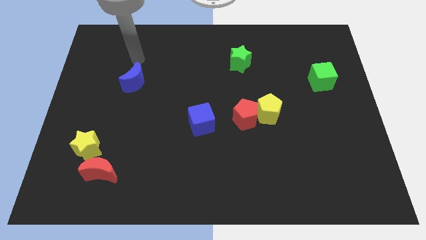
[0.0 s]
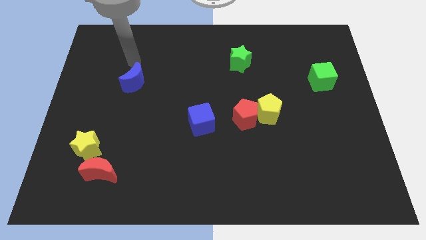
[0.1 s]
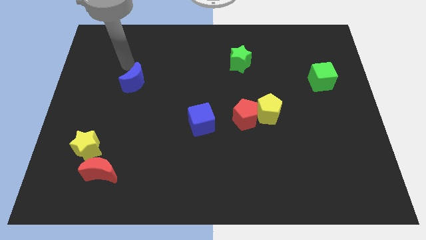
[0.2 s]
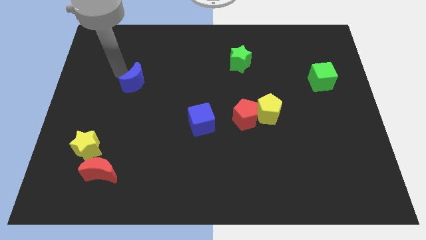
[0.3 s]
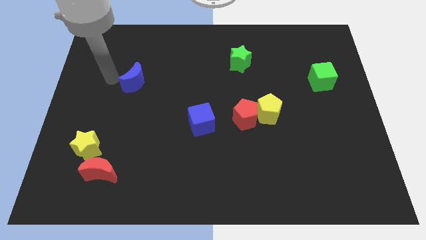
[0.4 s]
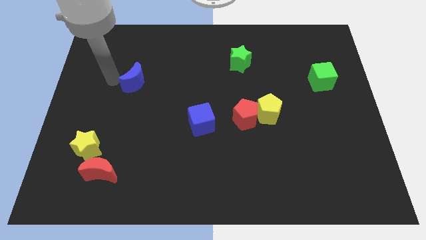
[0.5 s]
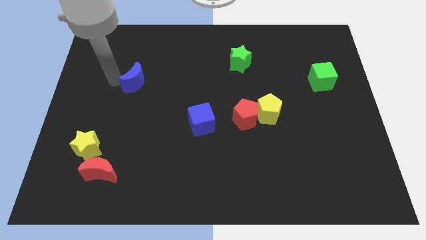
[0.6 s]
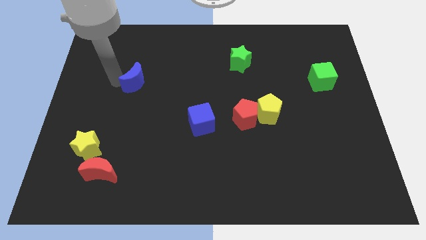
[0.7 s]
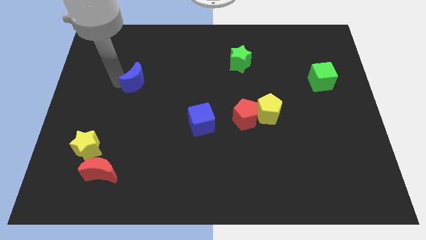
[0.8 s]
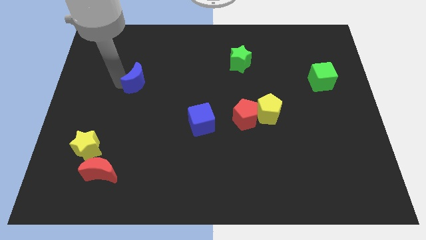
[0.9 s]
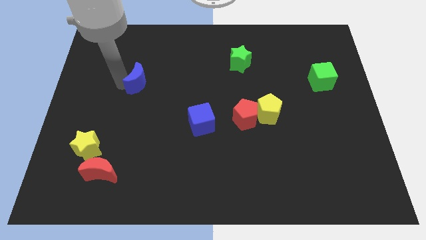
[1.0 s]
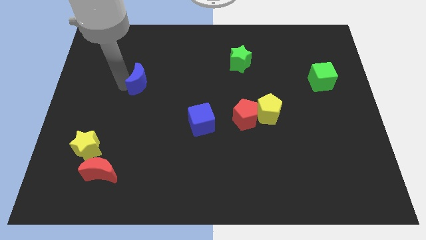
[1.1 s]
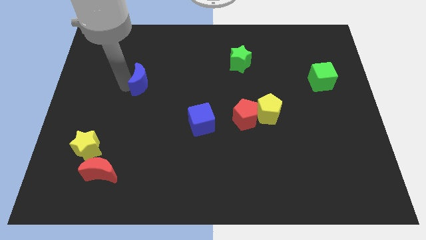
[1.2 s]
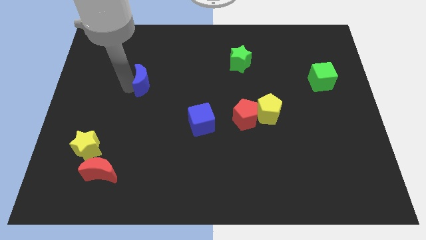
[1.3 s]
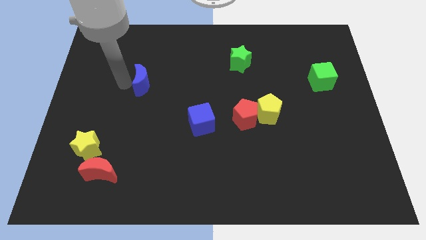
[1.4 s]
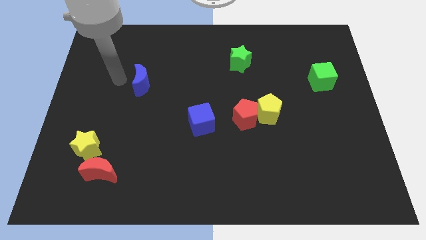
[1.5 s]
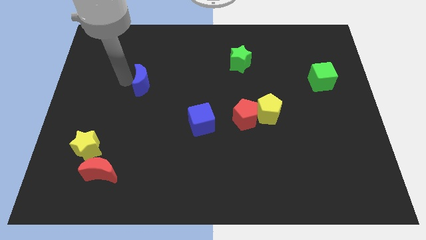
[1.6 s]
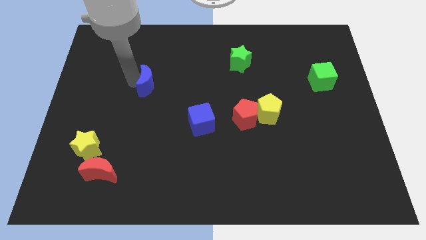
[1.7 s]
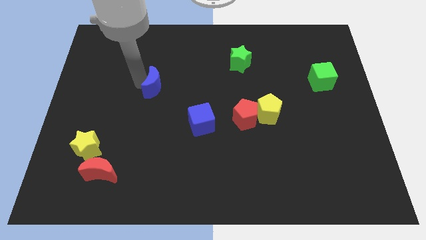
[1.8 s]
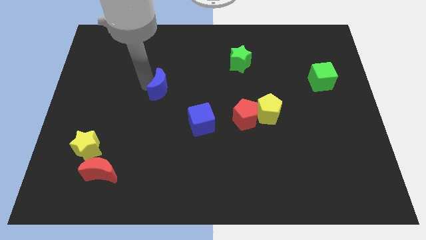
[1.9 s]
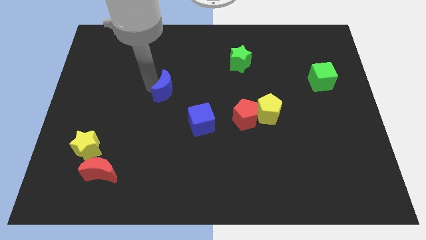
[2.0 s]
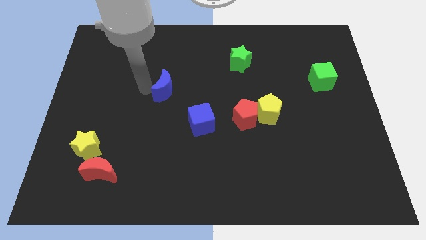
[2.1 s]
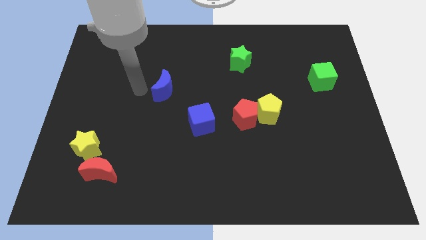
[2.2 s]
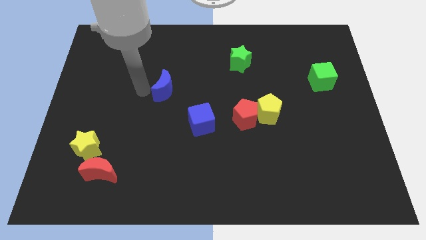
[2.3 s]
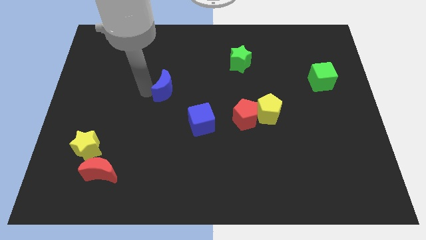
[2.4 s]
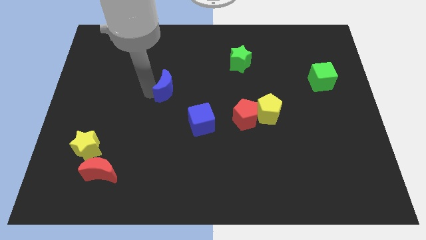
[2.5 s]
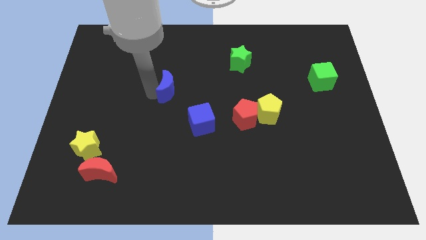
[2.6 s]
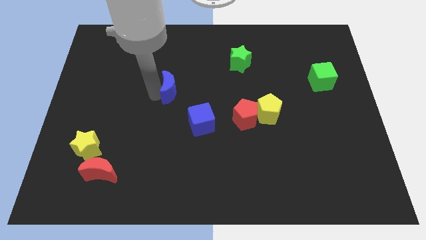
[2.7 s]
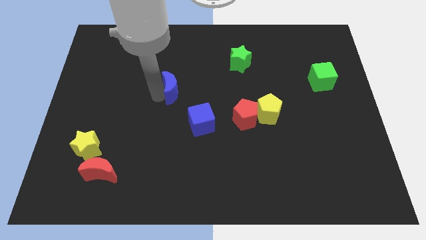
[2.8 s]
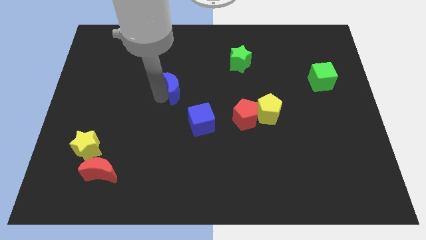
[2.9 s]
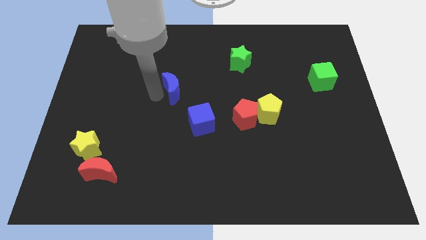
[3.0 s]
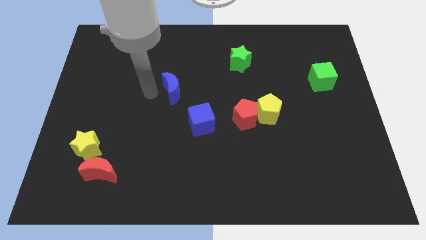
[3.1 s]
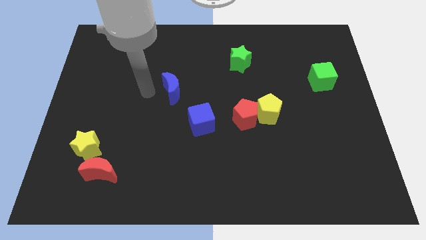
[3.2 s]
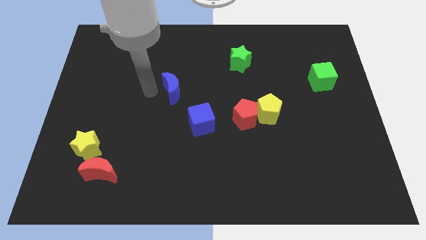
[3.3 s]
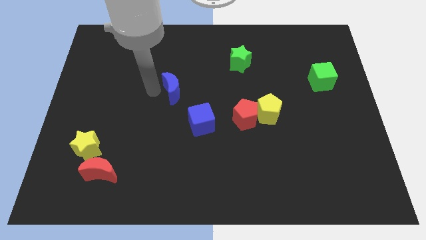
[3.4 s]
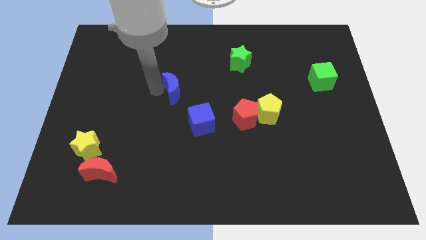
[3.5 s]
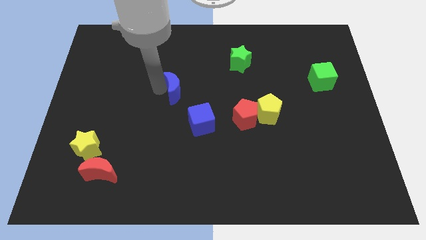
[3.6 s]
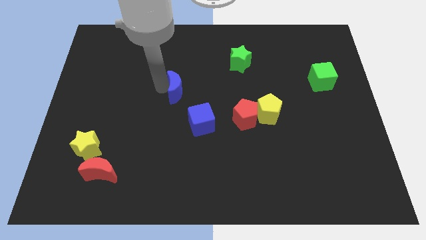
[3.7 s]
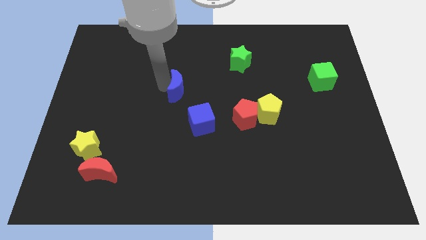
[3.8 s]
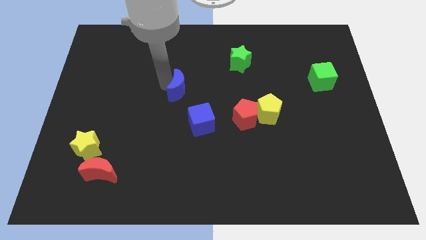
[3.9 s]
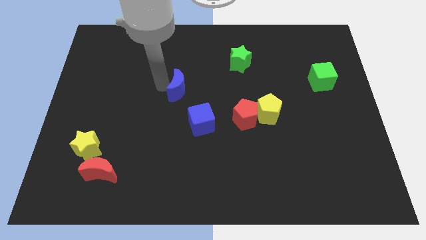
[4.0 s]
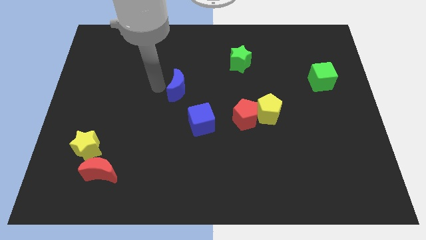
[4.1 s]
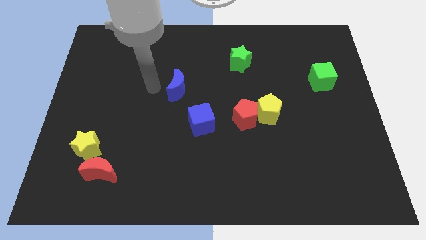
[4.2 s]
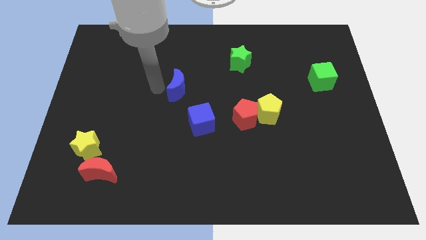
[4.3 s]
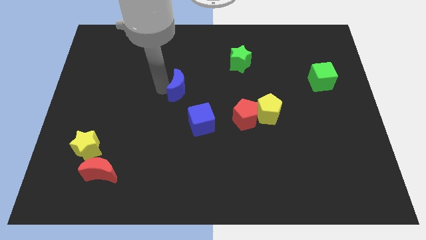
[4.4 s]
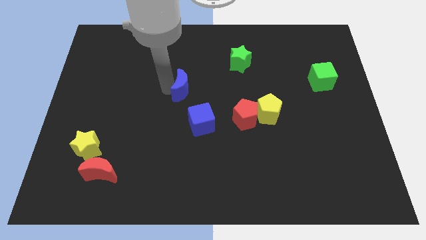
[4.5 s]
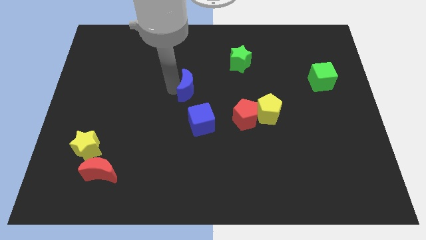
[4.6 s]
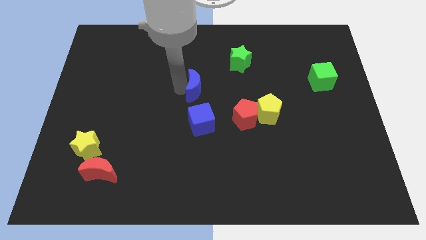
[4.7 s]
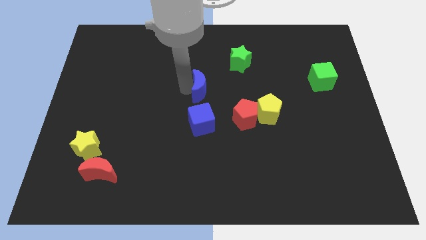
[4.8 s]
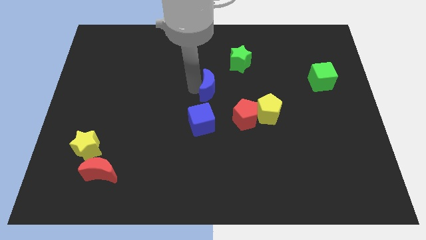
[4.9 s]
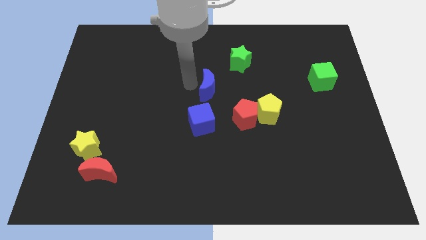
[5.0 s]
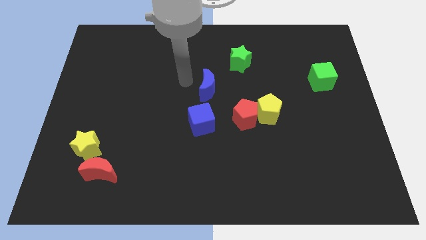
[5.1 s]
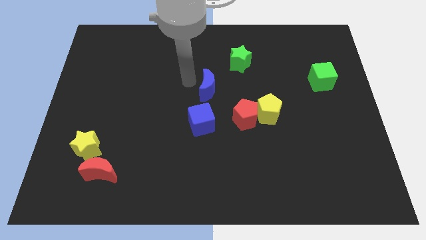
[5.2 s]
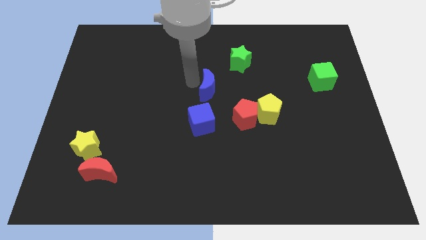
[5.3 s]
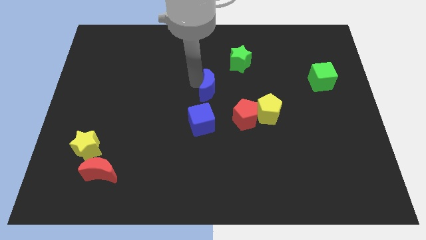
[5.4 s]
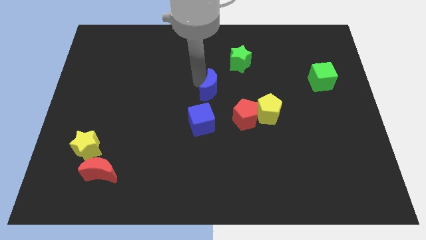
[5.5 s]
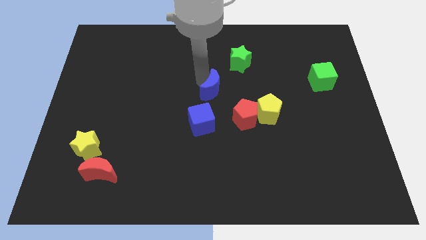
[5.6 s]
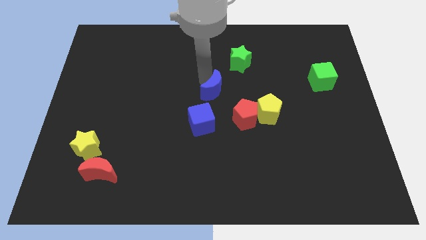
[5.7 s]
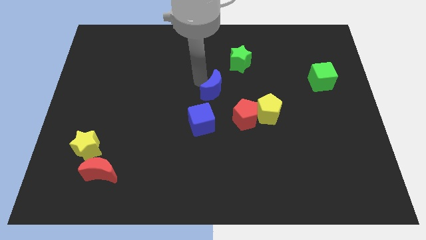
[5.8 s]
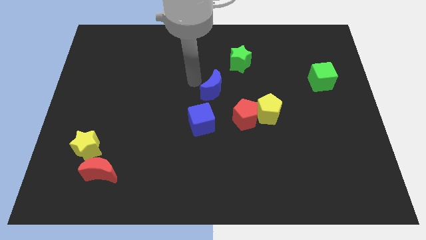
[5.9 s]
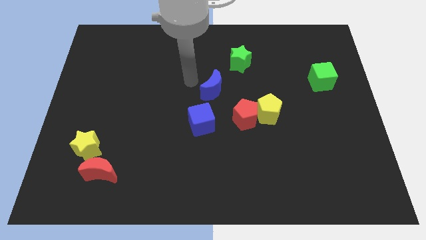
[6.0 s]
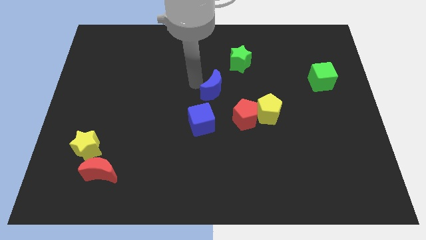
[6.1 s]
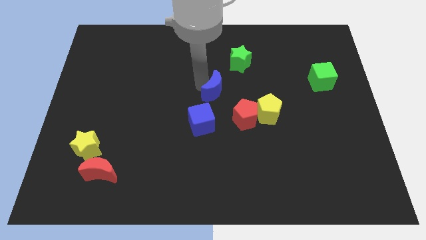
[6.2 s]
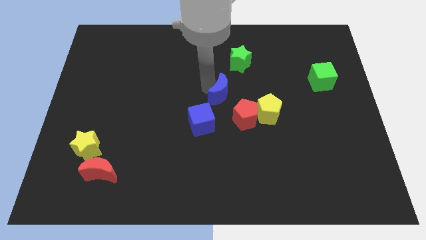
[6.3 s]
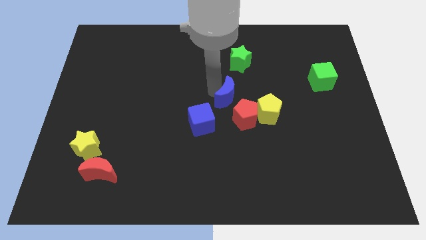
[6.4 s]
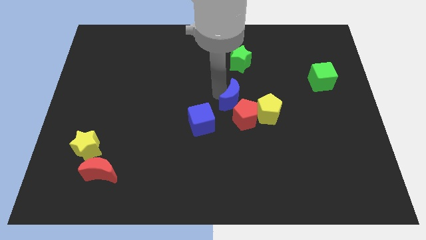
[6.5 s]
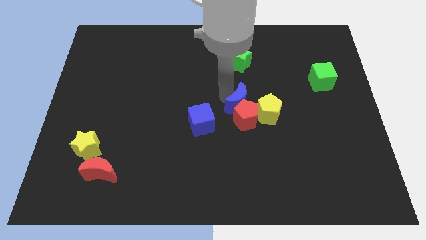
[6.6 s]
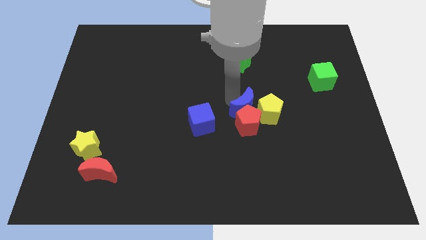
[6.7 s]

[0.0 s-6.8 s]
put the blue moon close to the yellow pentagon

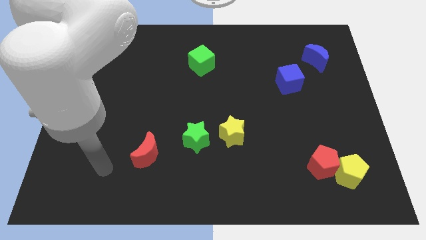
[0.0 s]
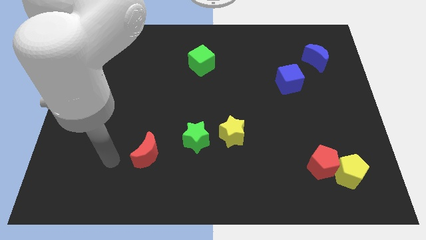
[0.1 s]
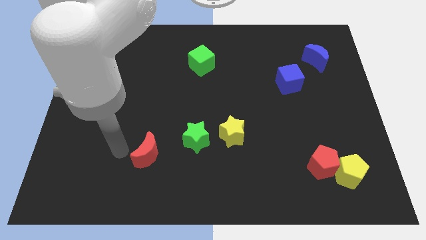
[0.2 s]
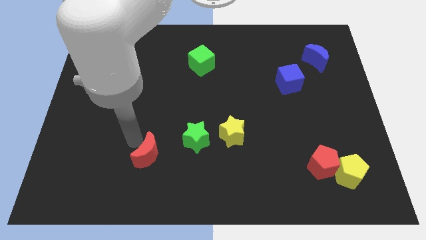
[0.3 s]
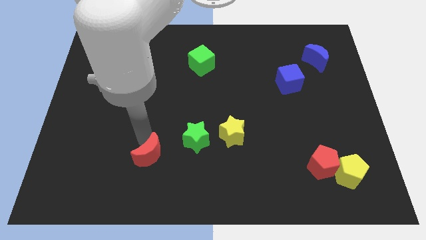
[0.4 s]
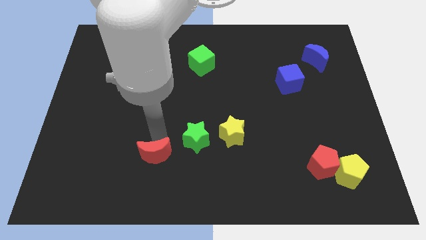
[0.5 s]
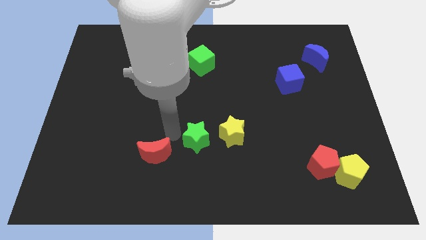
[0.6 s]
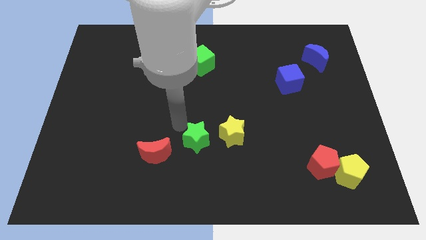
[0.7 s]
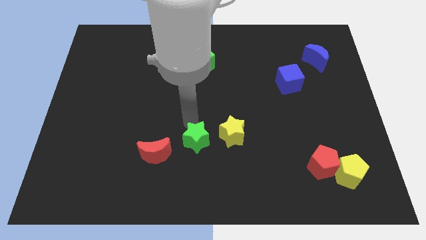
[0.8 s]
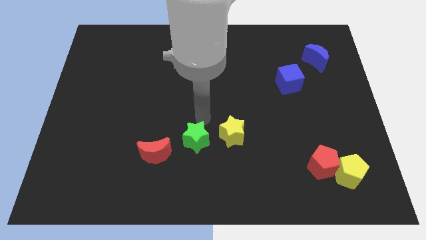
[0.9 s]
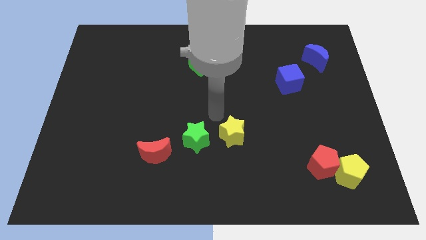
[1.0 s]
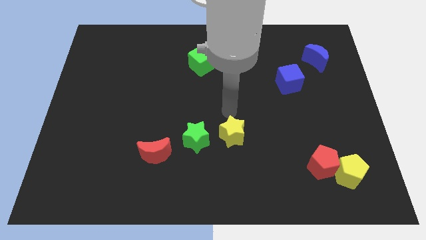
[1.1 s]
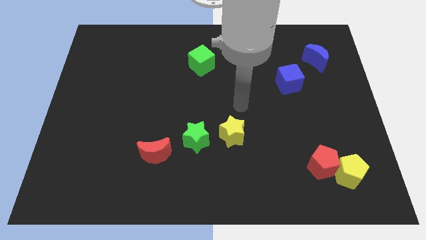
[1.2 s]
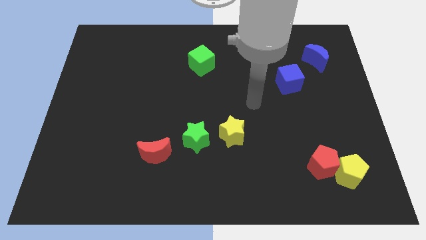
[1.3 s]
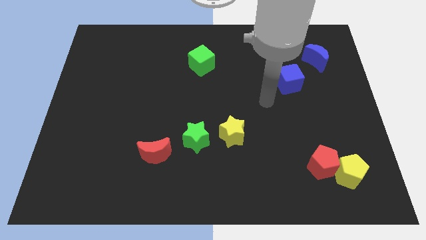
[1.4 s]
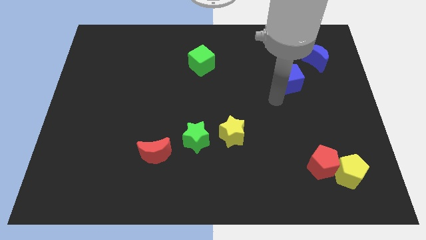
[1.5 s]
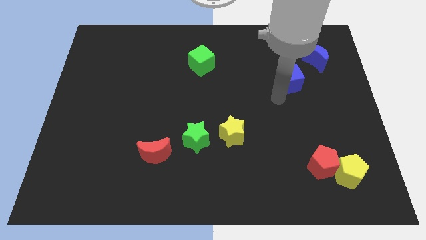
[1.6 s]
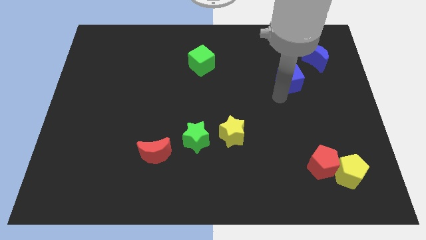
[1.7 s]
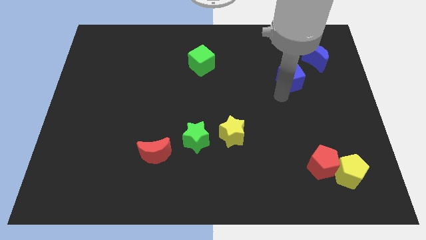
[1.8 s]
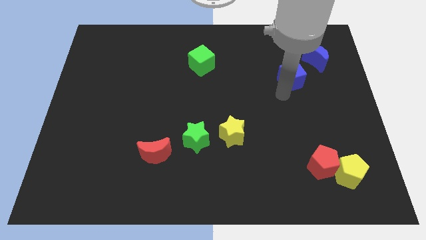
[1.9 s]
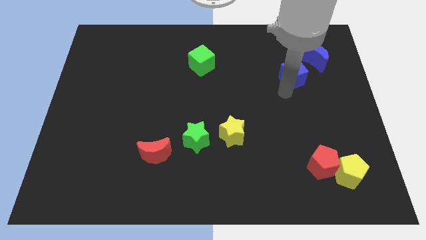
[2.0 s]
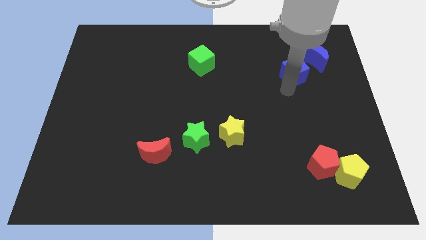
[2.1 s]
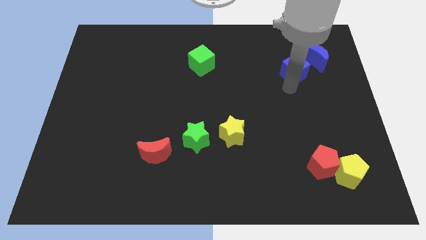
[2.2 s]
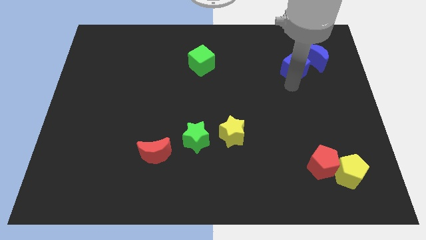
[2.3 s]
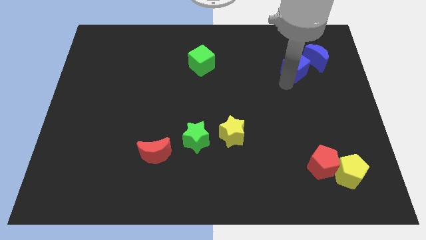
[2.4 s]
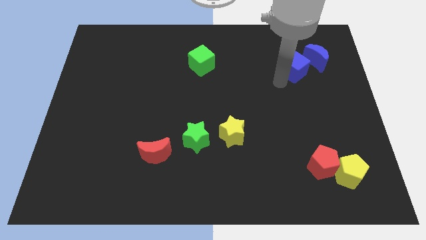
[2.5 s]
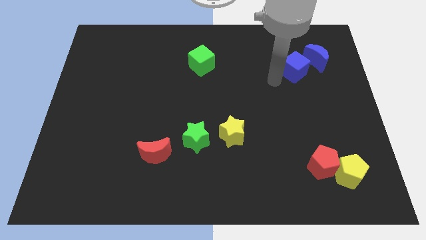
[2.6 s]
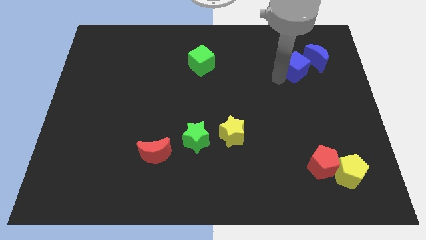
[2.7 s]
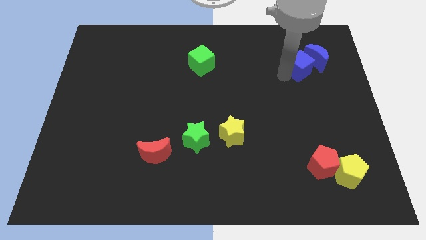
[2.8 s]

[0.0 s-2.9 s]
slide the blue cube close to the blue moon
